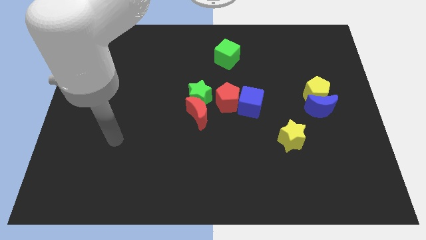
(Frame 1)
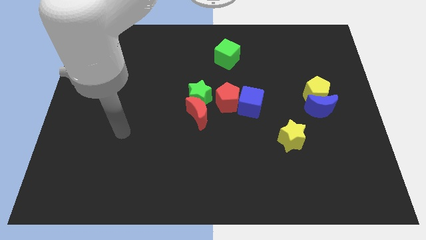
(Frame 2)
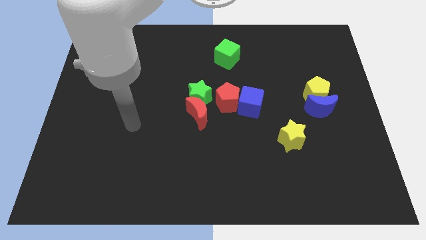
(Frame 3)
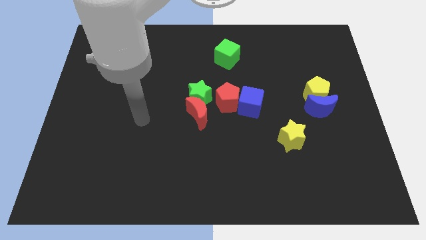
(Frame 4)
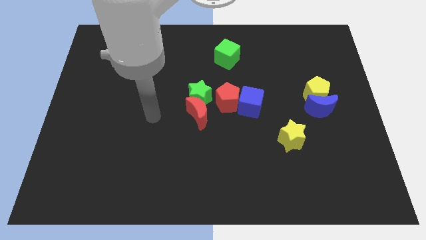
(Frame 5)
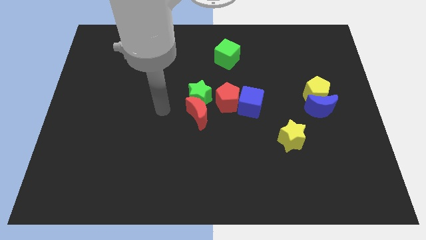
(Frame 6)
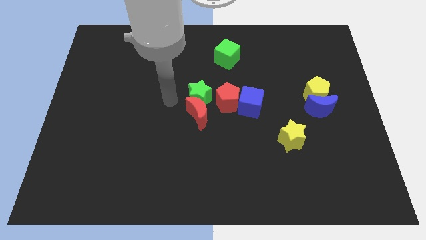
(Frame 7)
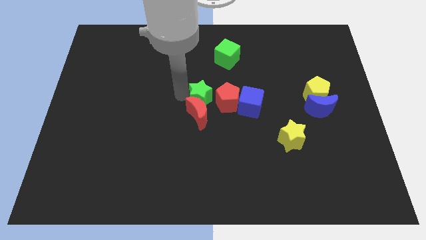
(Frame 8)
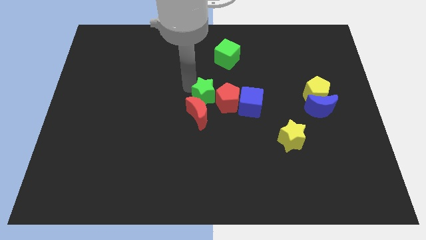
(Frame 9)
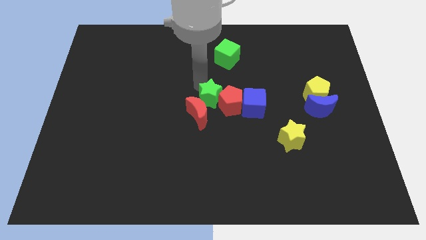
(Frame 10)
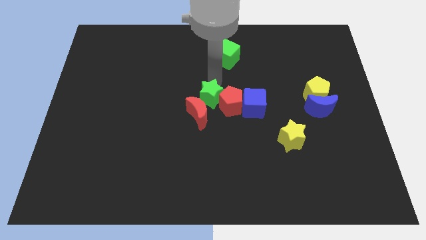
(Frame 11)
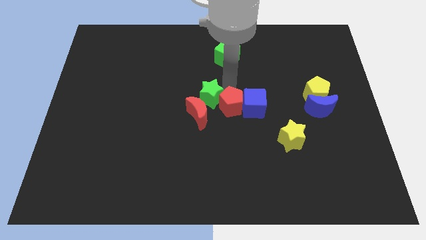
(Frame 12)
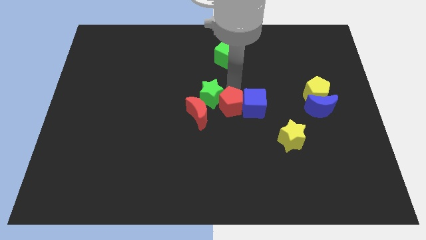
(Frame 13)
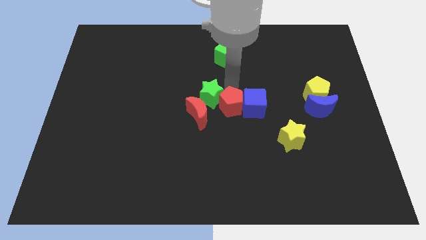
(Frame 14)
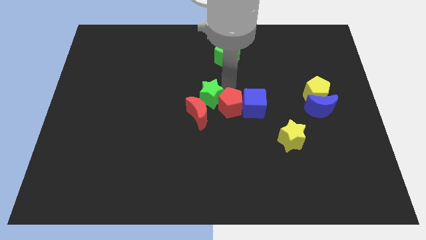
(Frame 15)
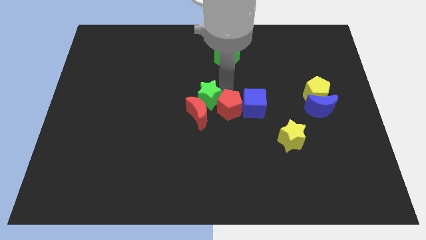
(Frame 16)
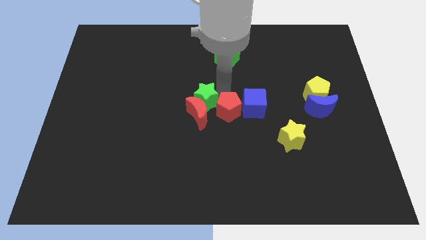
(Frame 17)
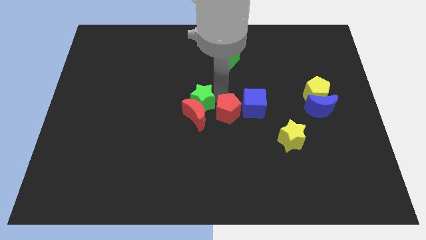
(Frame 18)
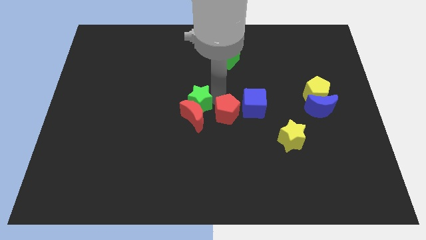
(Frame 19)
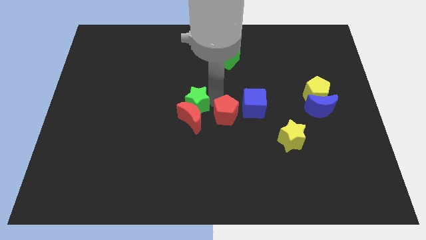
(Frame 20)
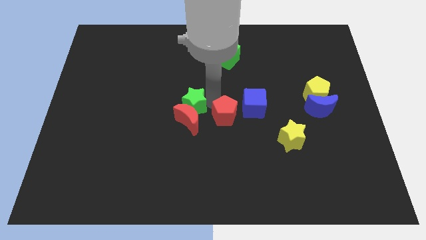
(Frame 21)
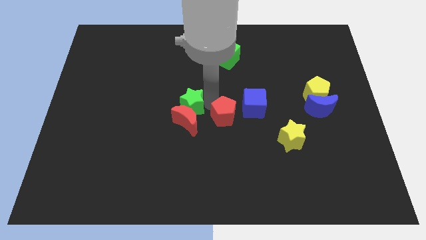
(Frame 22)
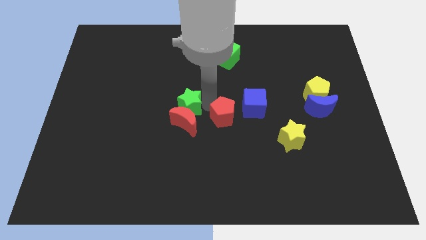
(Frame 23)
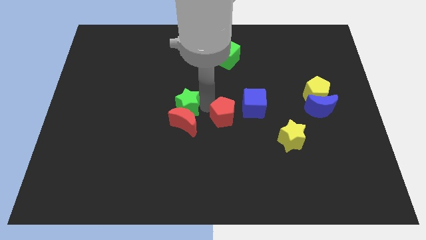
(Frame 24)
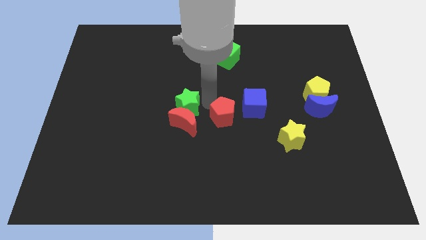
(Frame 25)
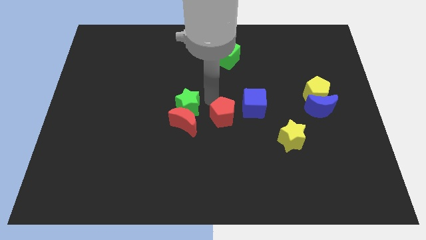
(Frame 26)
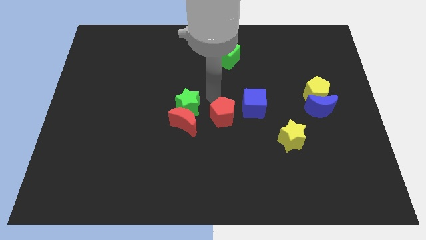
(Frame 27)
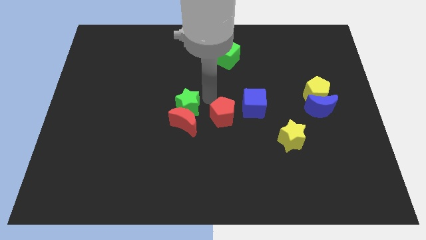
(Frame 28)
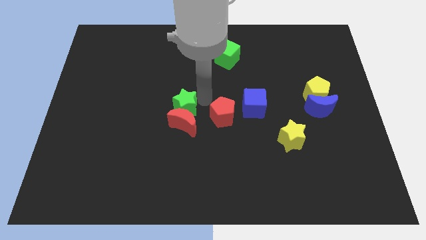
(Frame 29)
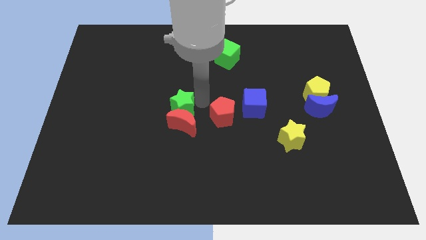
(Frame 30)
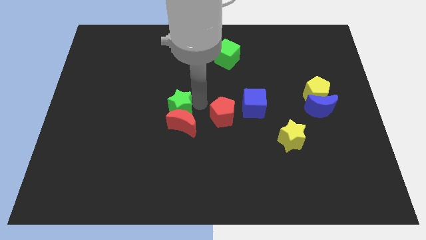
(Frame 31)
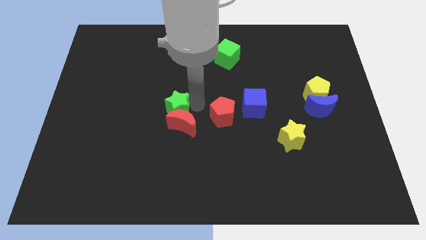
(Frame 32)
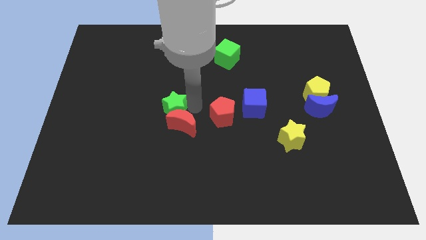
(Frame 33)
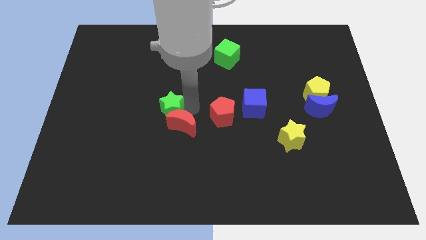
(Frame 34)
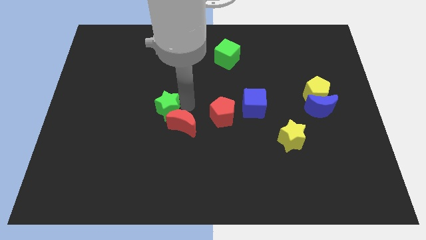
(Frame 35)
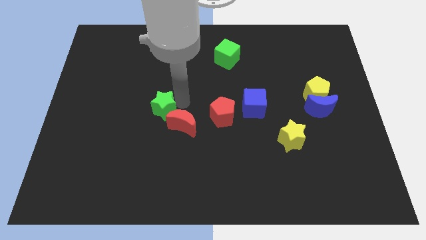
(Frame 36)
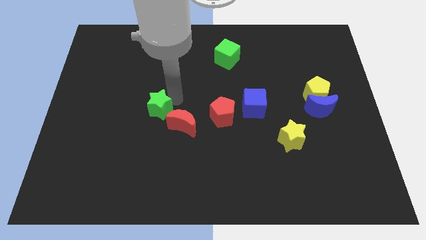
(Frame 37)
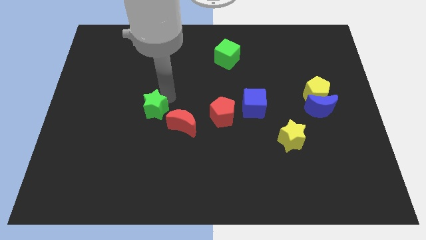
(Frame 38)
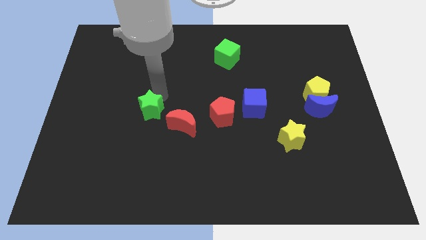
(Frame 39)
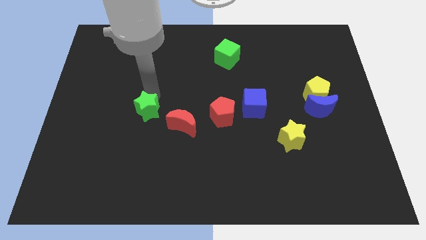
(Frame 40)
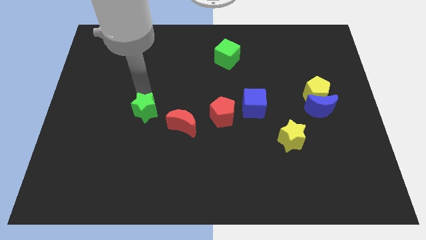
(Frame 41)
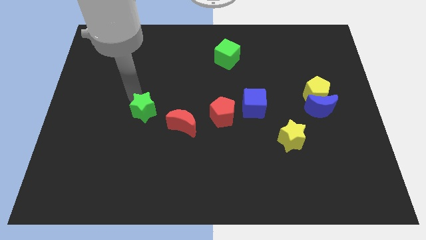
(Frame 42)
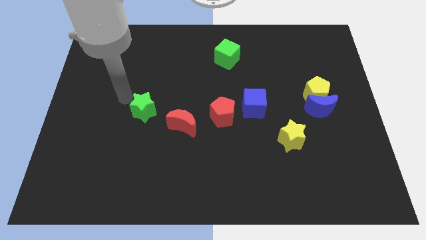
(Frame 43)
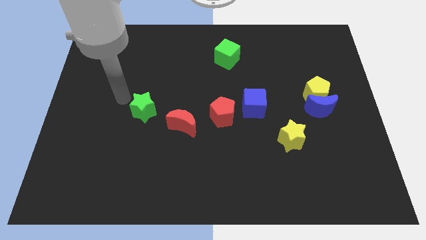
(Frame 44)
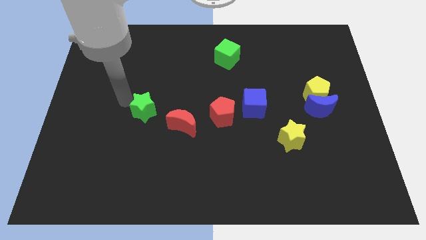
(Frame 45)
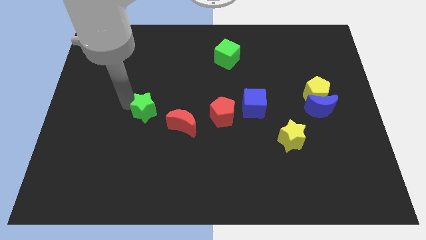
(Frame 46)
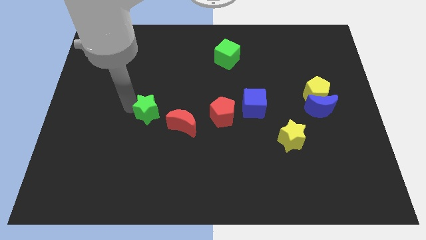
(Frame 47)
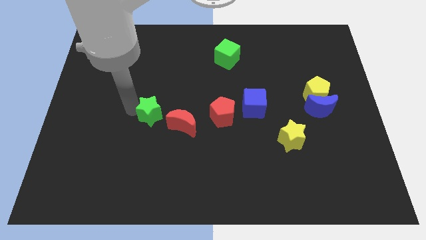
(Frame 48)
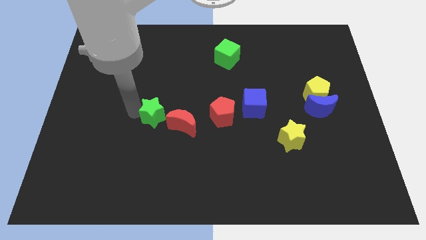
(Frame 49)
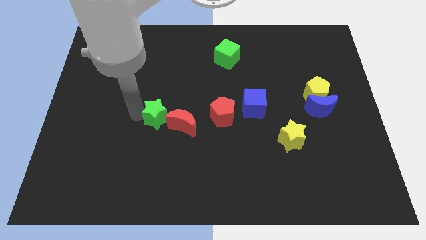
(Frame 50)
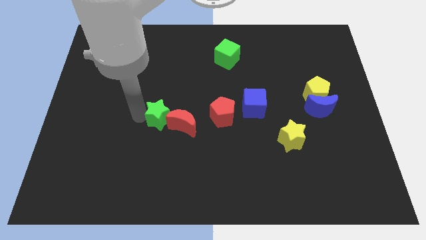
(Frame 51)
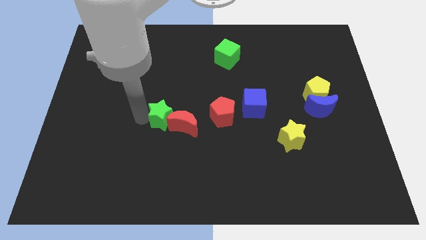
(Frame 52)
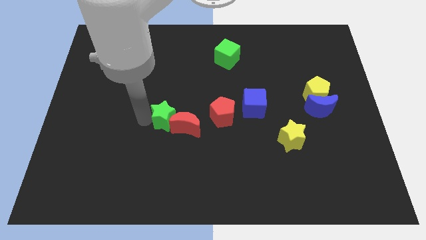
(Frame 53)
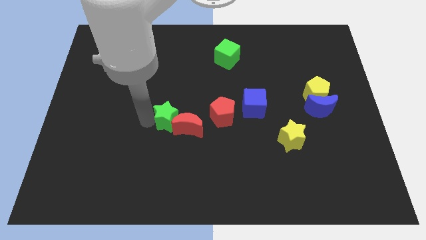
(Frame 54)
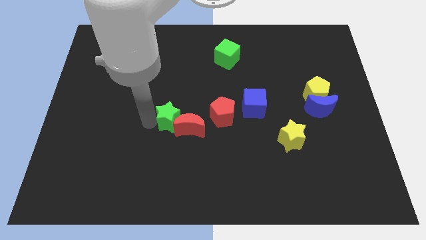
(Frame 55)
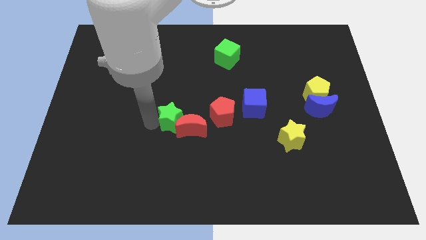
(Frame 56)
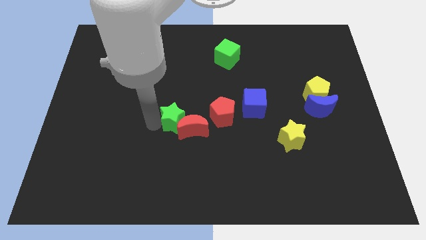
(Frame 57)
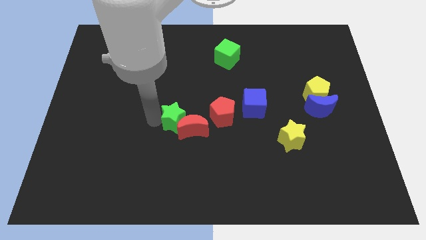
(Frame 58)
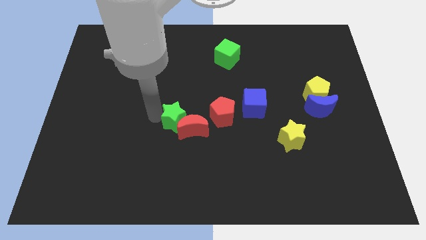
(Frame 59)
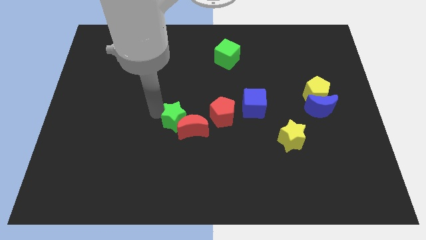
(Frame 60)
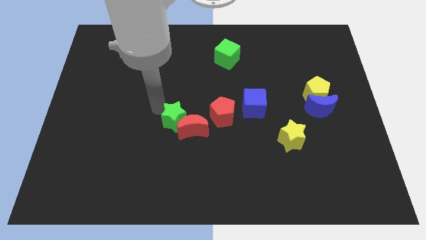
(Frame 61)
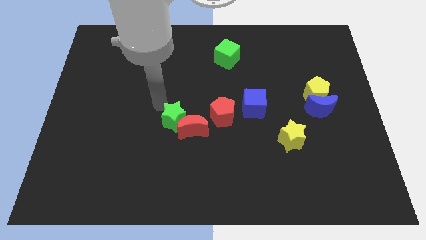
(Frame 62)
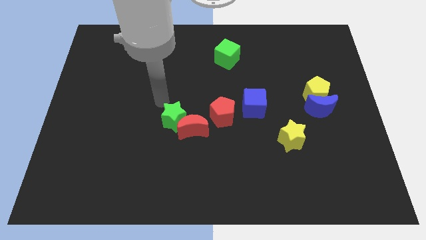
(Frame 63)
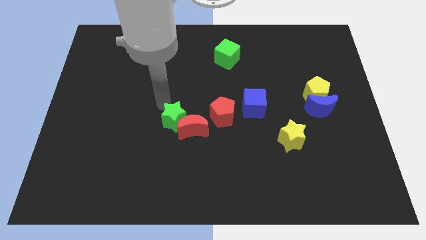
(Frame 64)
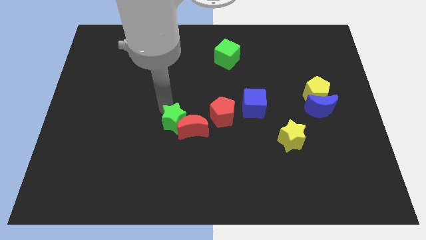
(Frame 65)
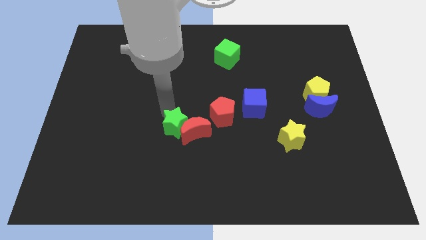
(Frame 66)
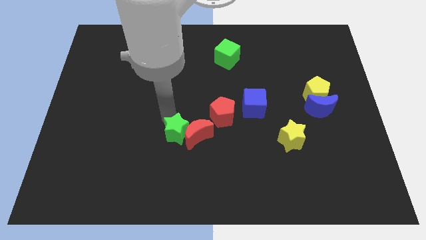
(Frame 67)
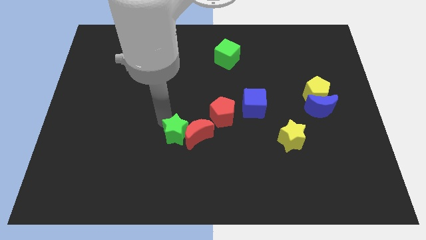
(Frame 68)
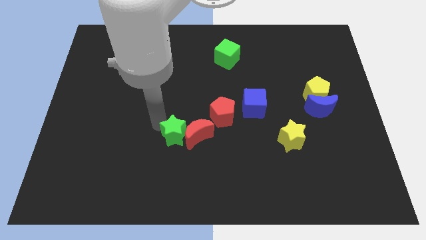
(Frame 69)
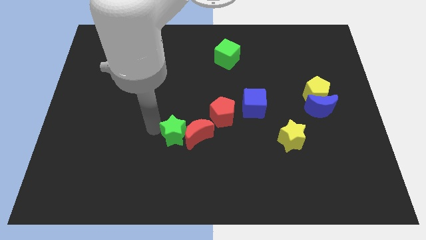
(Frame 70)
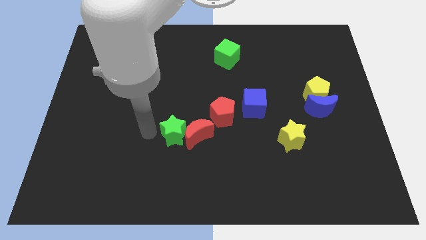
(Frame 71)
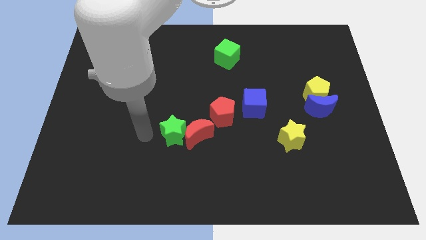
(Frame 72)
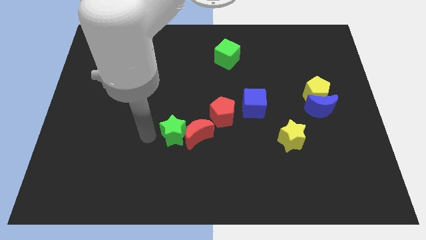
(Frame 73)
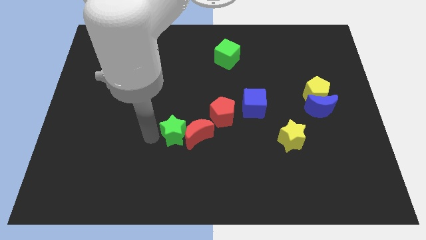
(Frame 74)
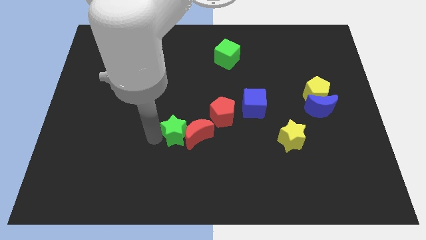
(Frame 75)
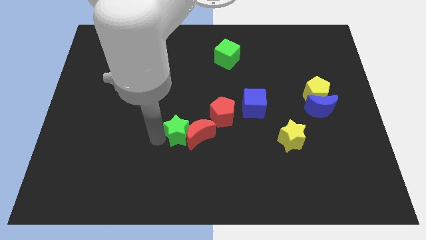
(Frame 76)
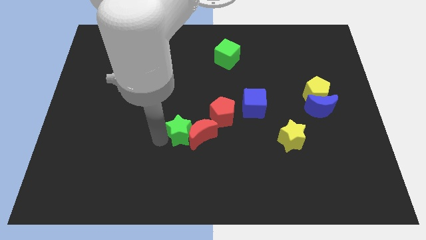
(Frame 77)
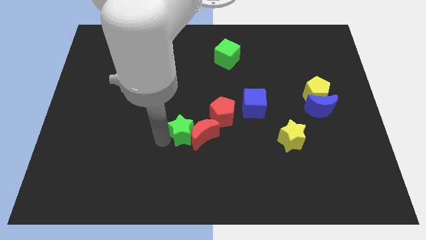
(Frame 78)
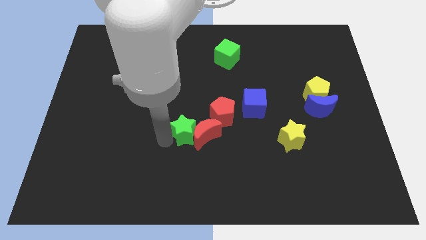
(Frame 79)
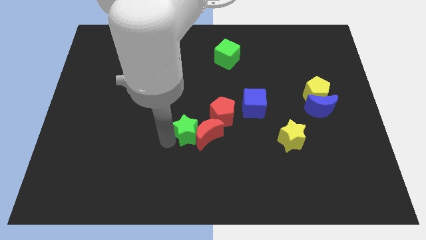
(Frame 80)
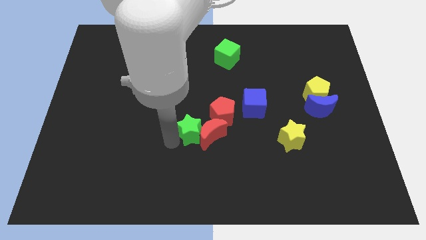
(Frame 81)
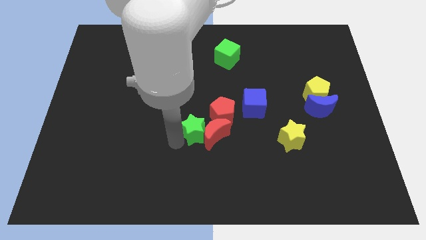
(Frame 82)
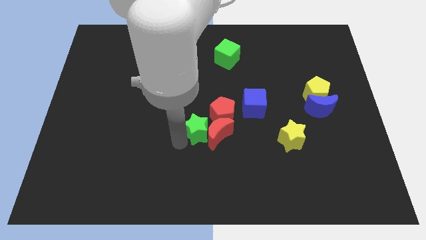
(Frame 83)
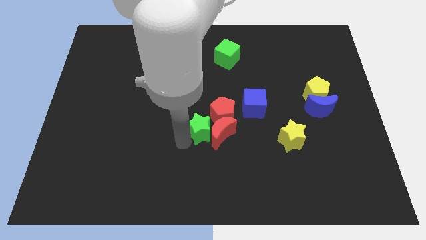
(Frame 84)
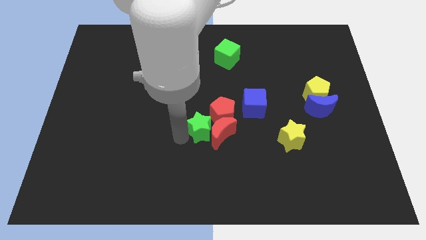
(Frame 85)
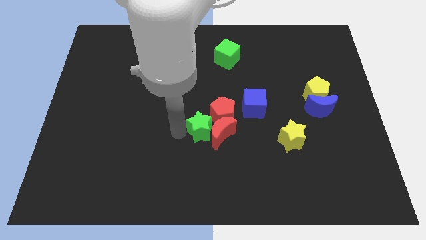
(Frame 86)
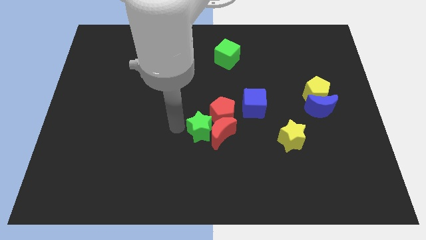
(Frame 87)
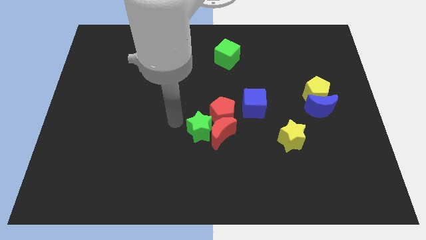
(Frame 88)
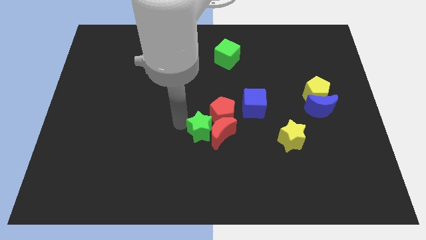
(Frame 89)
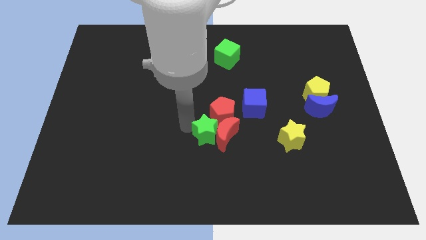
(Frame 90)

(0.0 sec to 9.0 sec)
move the green star diagonally down and right a little
